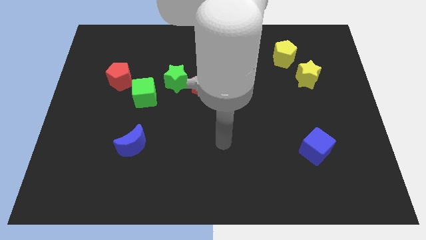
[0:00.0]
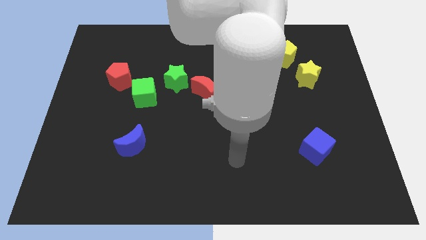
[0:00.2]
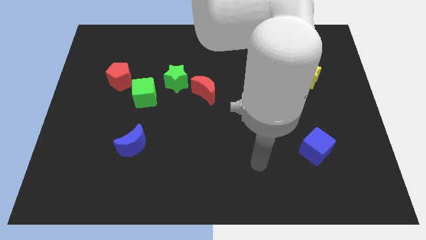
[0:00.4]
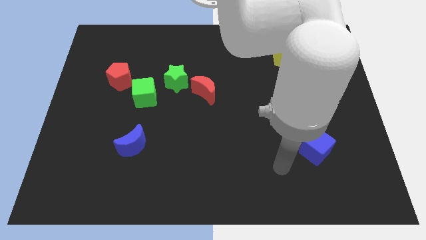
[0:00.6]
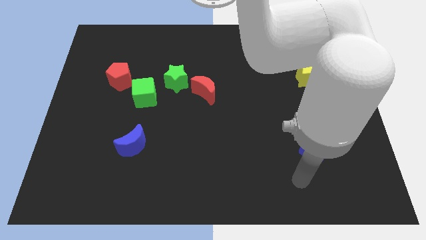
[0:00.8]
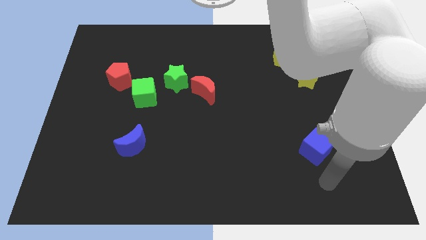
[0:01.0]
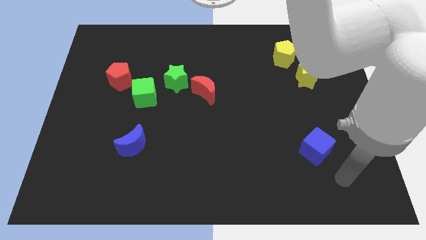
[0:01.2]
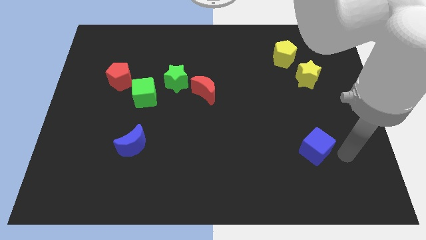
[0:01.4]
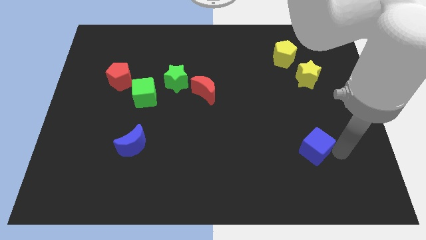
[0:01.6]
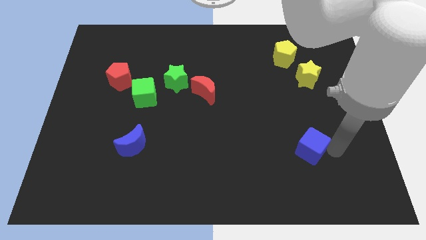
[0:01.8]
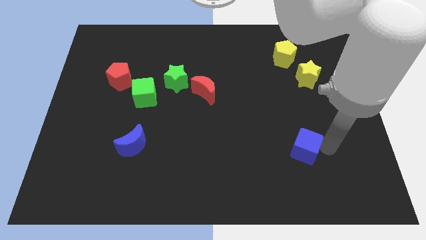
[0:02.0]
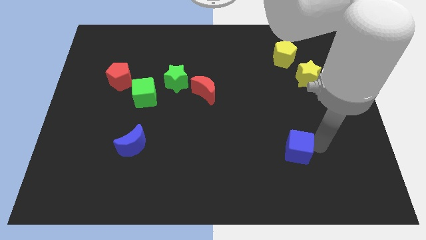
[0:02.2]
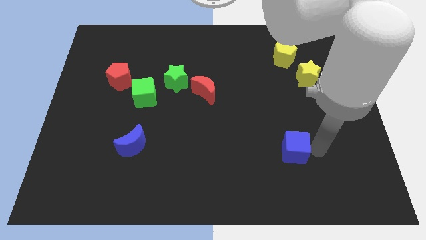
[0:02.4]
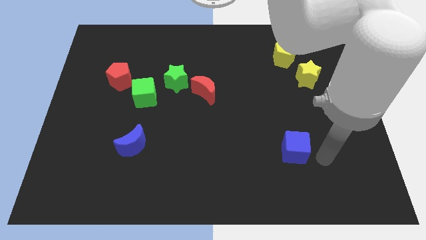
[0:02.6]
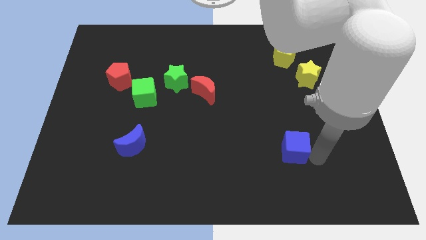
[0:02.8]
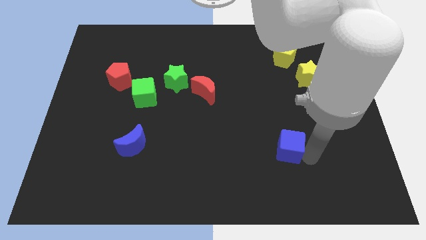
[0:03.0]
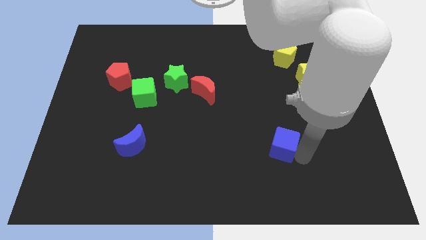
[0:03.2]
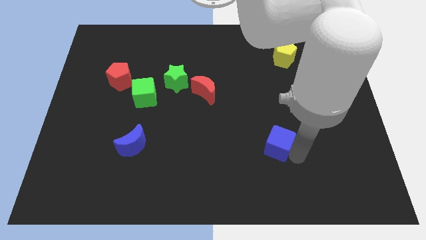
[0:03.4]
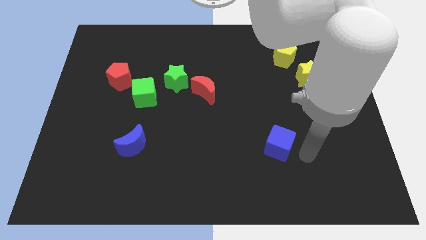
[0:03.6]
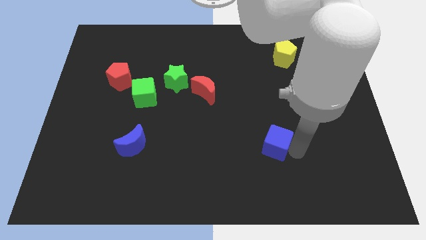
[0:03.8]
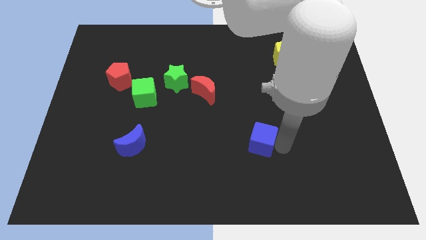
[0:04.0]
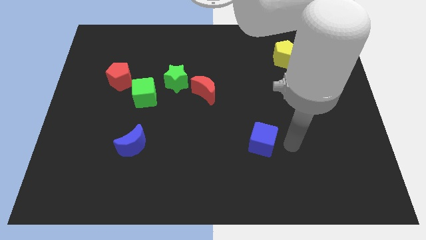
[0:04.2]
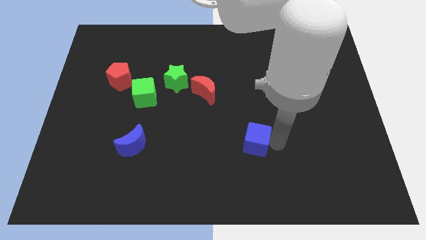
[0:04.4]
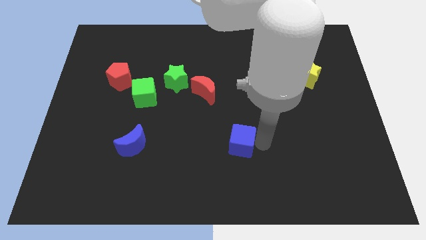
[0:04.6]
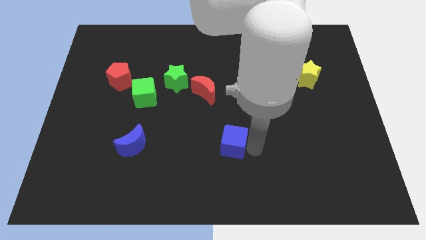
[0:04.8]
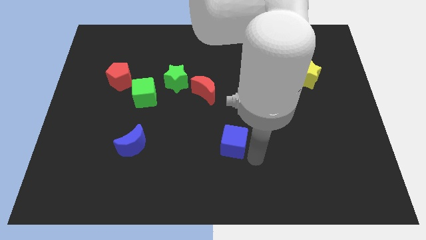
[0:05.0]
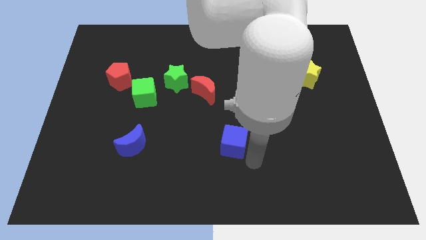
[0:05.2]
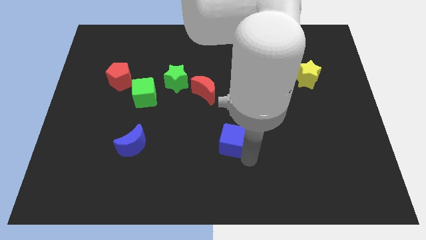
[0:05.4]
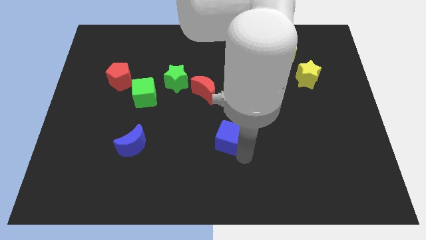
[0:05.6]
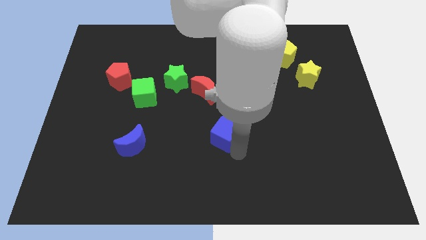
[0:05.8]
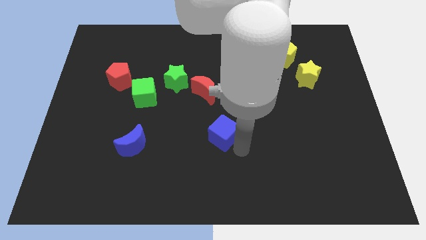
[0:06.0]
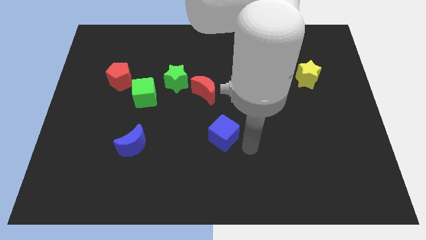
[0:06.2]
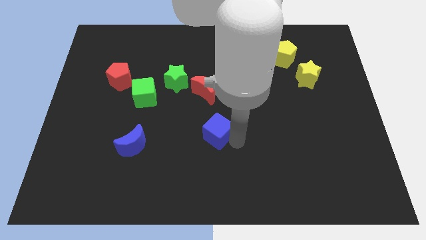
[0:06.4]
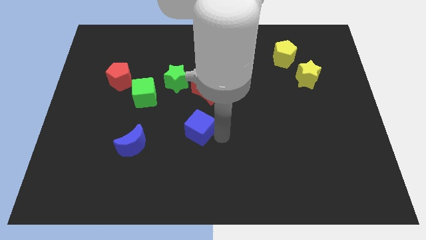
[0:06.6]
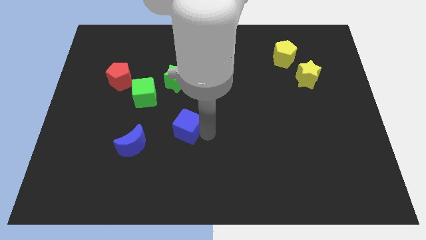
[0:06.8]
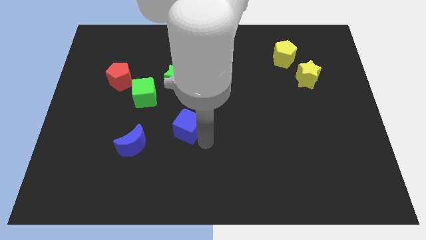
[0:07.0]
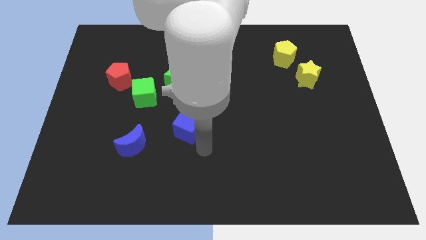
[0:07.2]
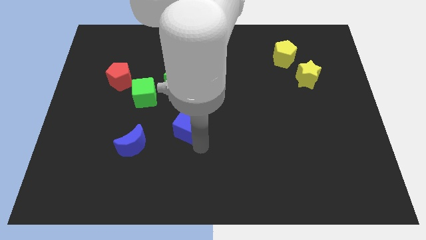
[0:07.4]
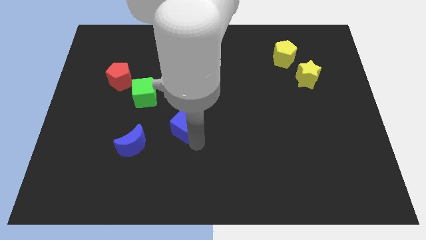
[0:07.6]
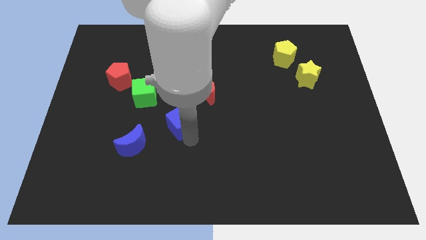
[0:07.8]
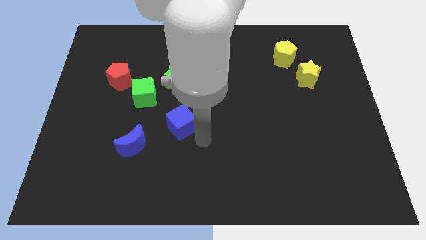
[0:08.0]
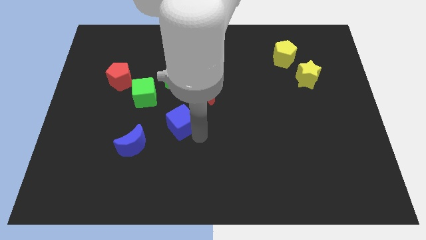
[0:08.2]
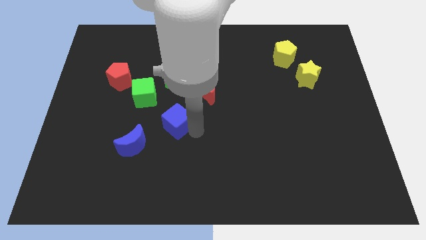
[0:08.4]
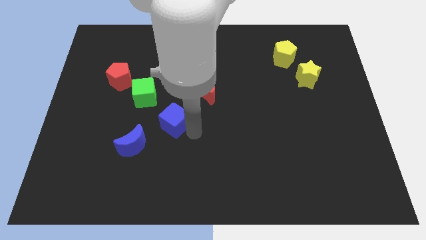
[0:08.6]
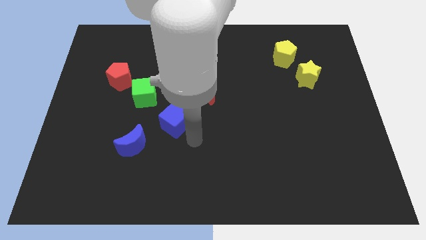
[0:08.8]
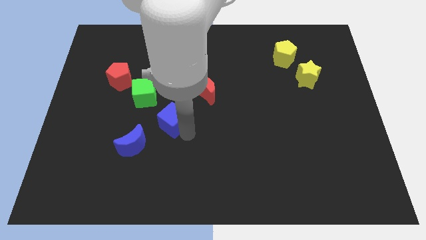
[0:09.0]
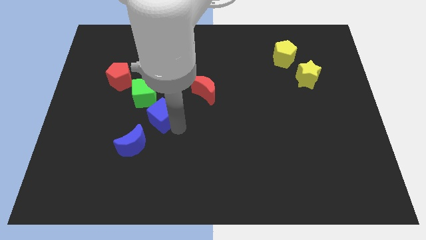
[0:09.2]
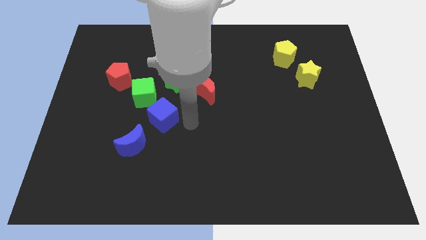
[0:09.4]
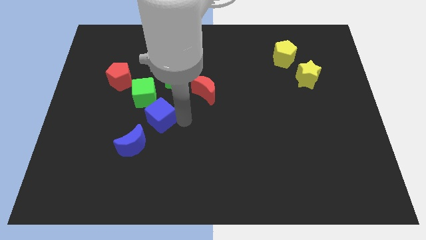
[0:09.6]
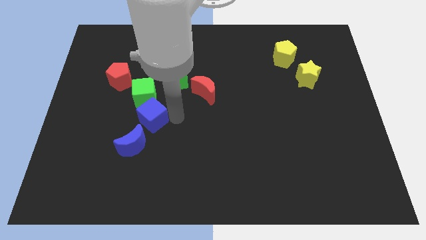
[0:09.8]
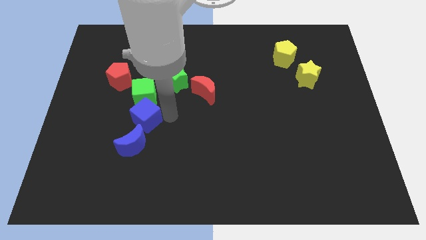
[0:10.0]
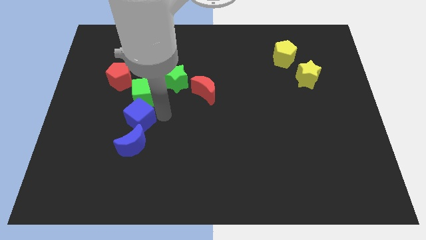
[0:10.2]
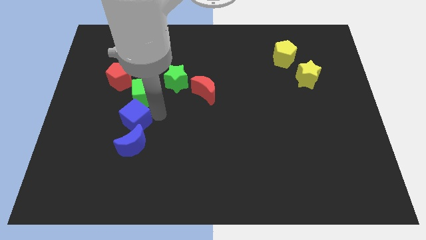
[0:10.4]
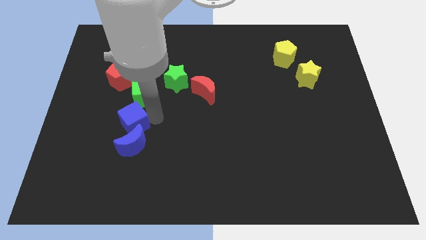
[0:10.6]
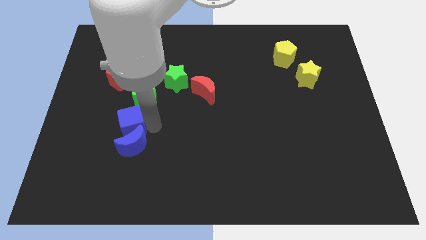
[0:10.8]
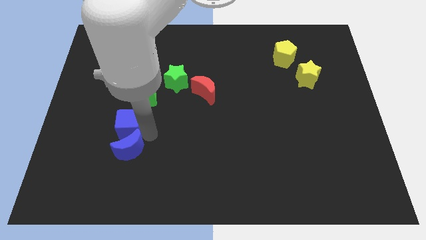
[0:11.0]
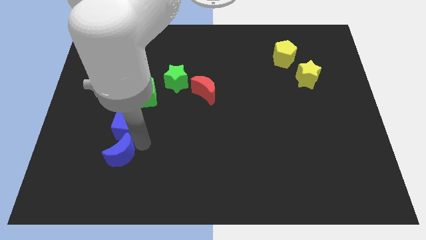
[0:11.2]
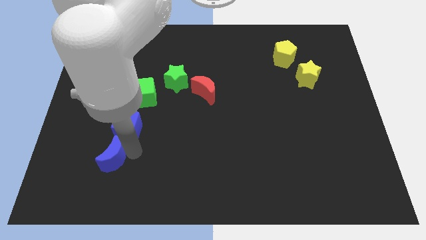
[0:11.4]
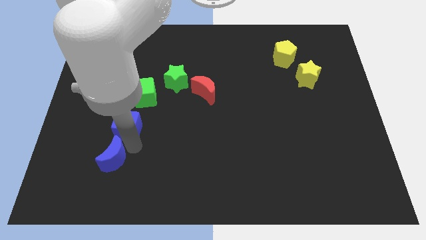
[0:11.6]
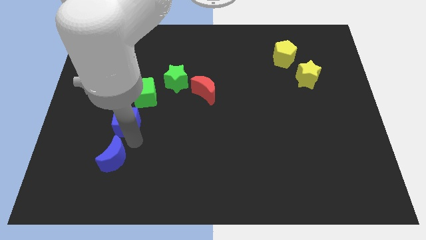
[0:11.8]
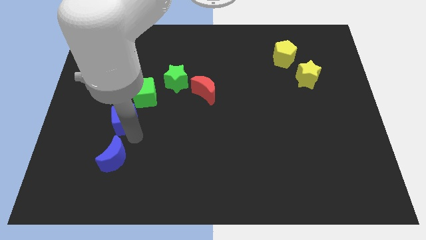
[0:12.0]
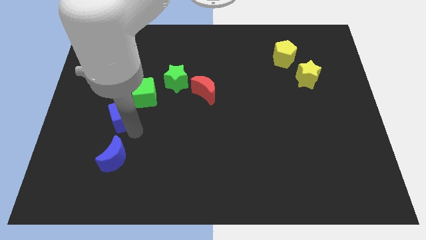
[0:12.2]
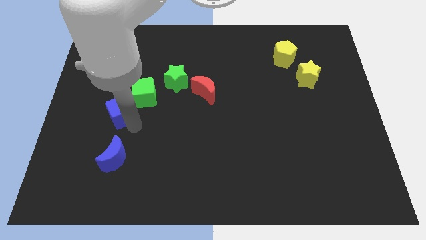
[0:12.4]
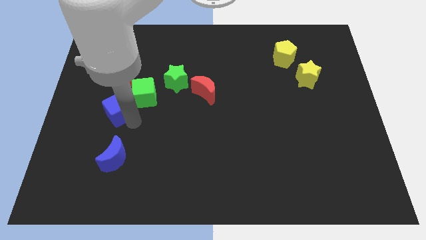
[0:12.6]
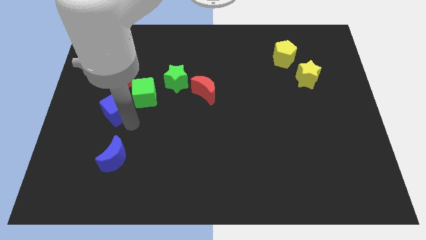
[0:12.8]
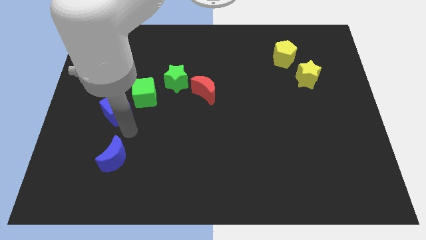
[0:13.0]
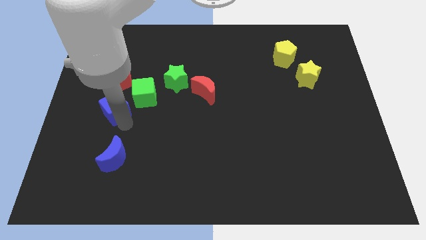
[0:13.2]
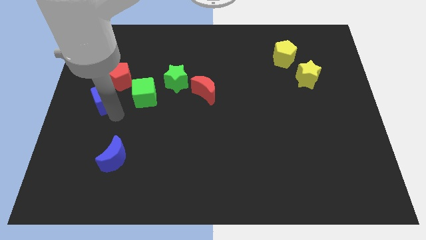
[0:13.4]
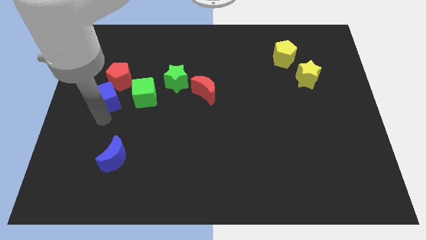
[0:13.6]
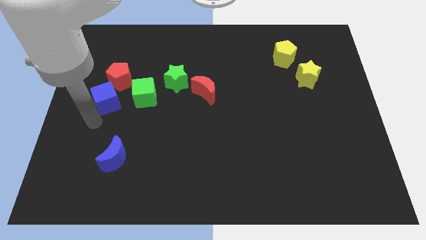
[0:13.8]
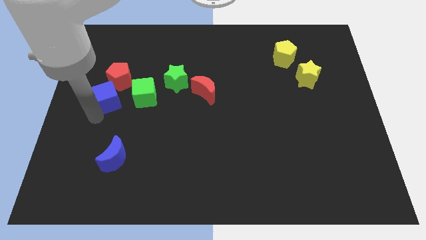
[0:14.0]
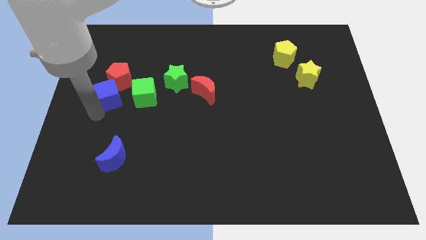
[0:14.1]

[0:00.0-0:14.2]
move the blue cube next to the red pentagon
